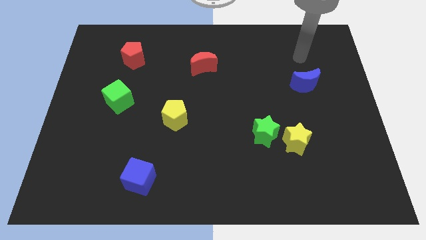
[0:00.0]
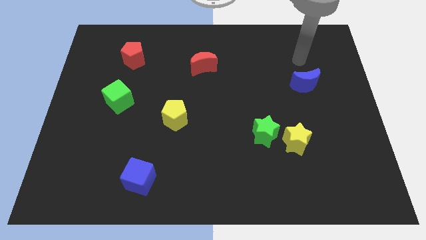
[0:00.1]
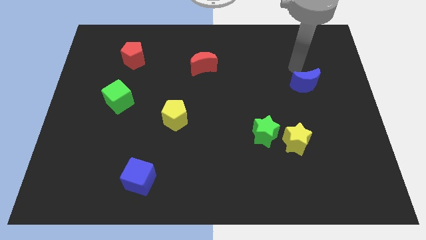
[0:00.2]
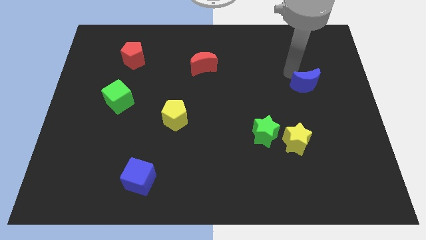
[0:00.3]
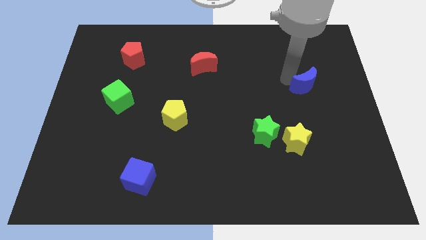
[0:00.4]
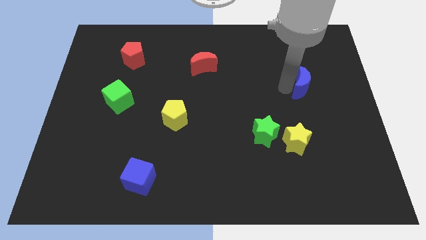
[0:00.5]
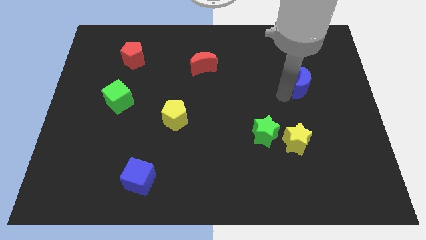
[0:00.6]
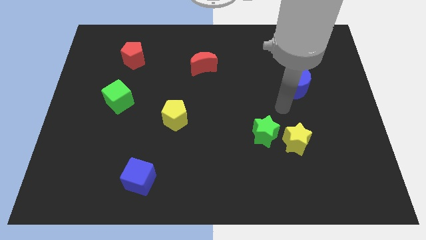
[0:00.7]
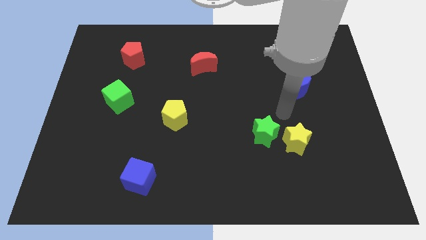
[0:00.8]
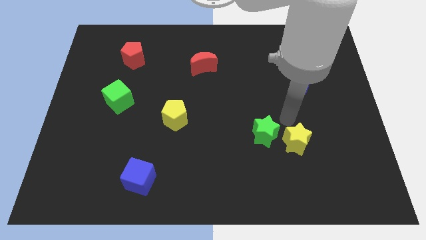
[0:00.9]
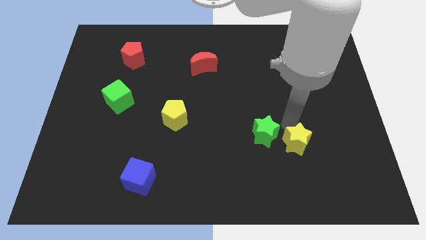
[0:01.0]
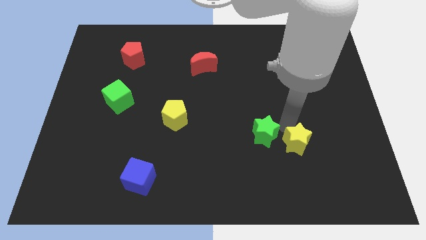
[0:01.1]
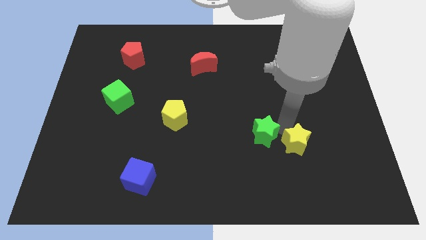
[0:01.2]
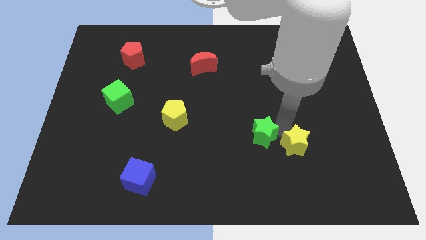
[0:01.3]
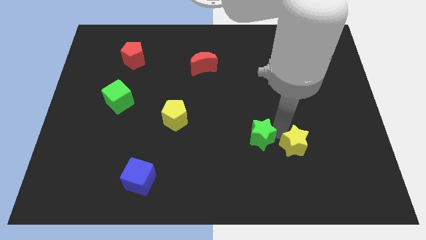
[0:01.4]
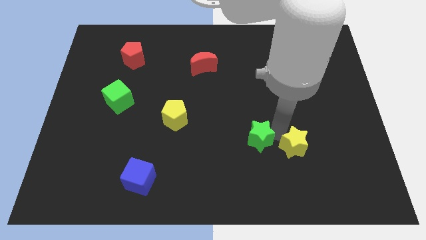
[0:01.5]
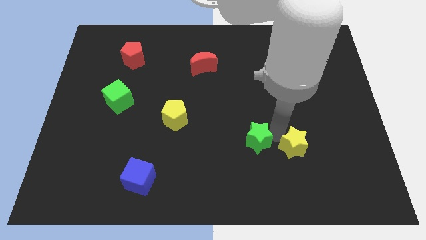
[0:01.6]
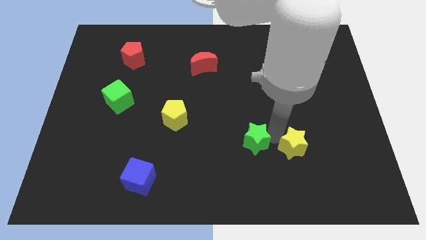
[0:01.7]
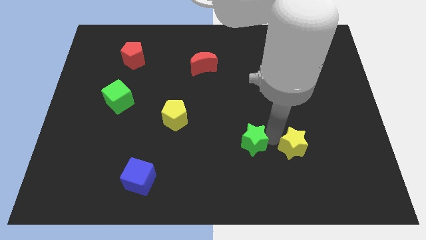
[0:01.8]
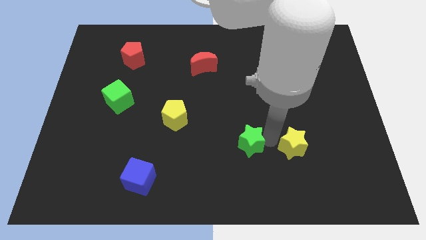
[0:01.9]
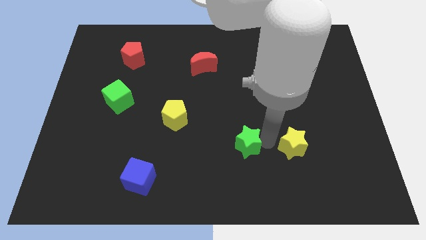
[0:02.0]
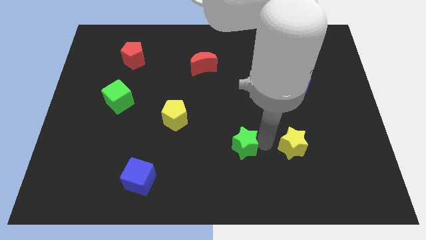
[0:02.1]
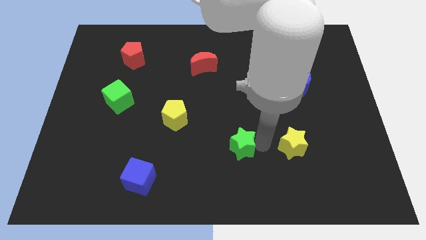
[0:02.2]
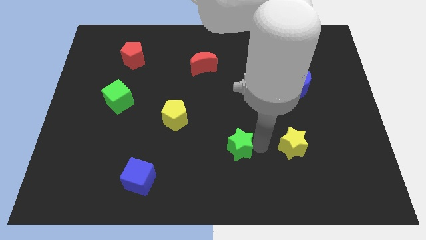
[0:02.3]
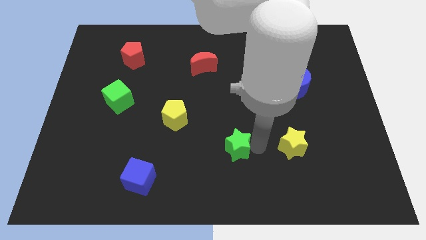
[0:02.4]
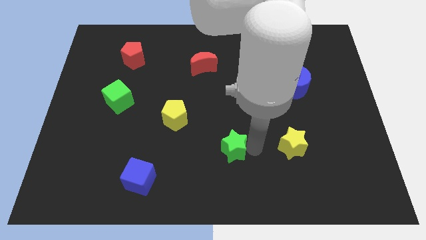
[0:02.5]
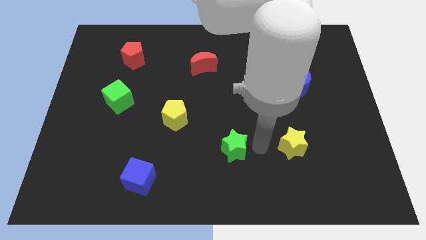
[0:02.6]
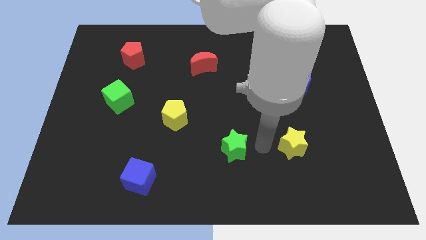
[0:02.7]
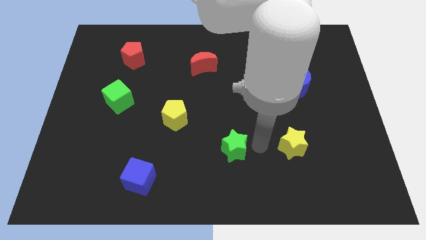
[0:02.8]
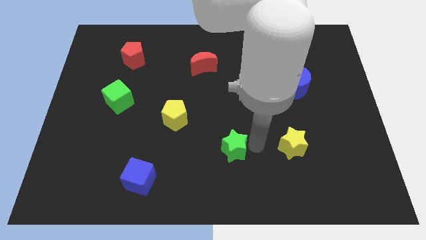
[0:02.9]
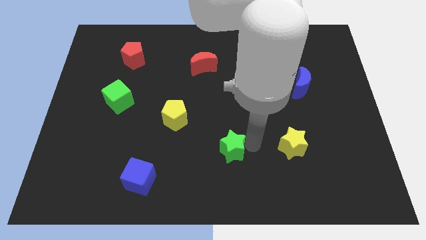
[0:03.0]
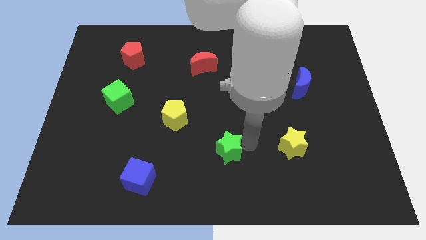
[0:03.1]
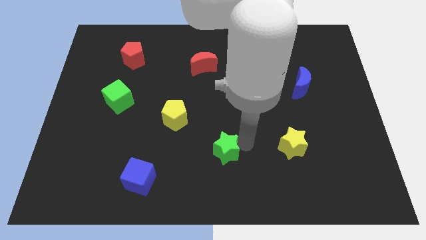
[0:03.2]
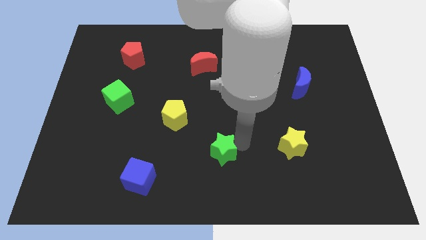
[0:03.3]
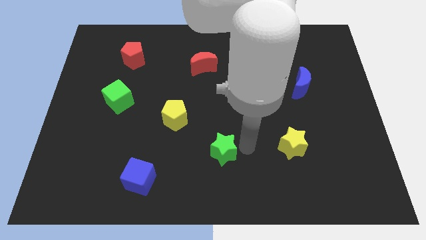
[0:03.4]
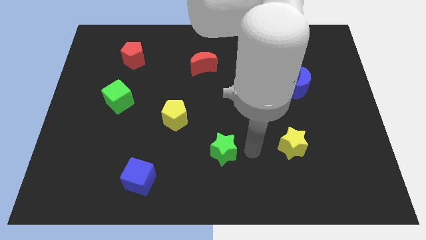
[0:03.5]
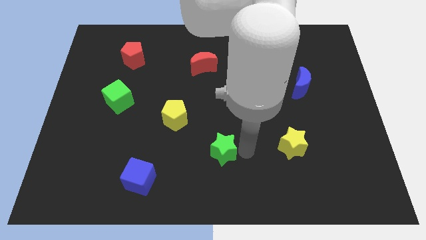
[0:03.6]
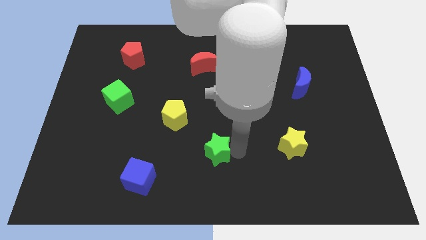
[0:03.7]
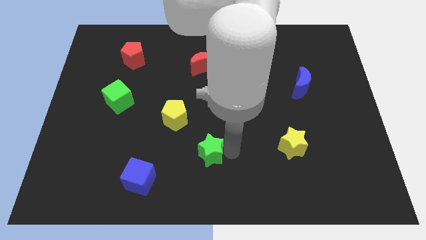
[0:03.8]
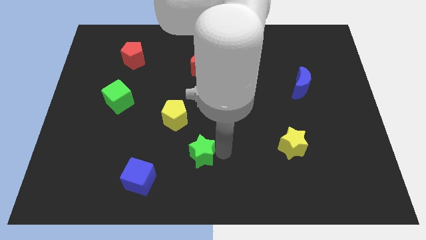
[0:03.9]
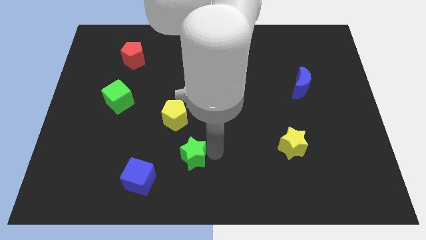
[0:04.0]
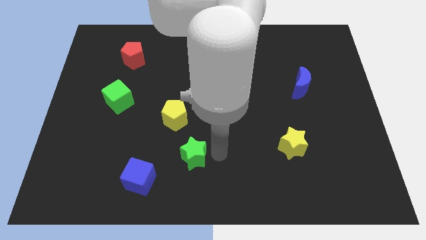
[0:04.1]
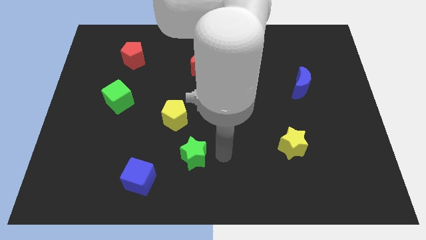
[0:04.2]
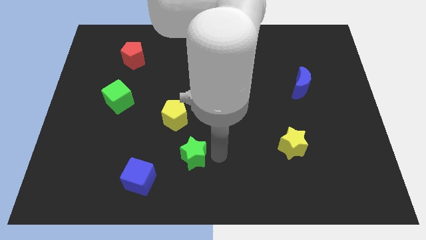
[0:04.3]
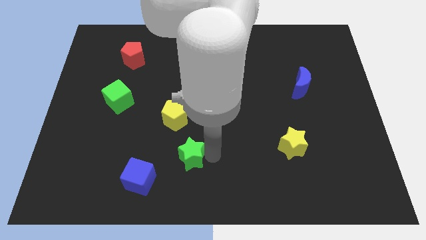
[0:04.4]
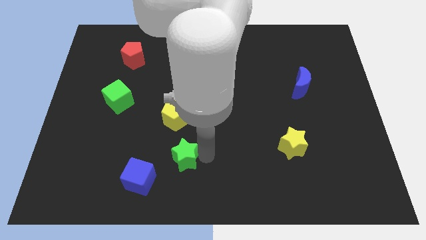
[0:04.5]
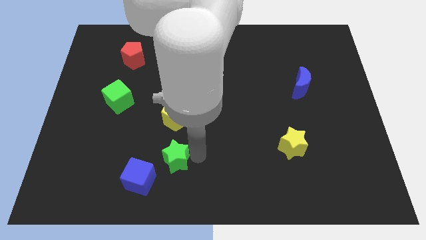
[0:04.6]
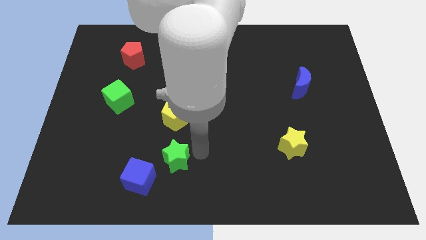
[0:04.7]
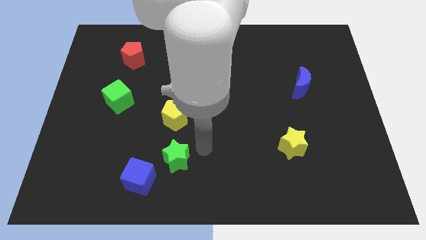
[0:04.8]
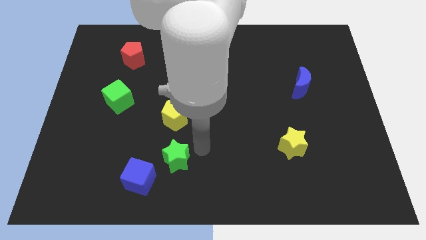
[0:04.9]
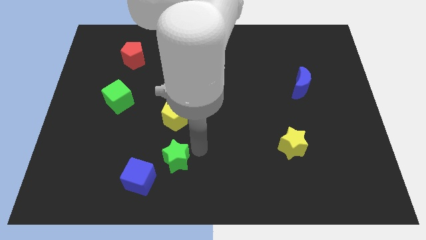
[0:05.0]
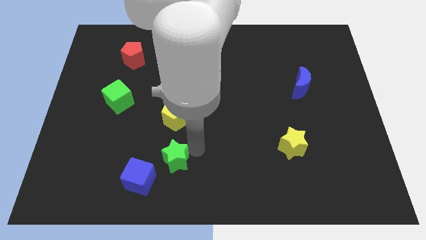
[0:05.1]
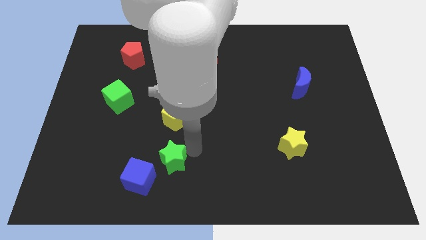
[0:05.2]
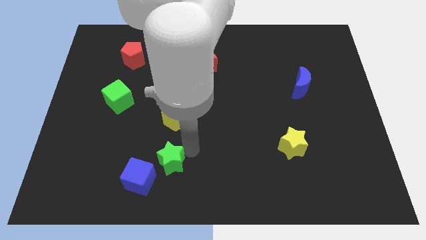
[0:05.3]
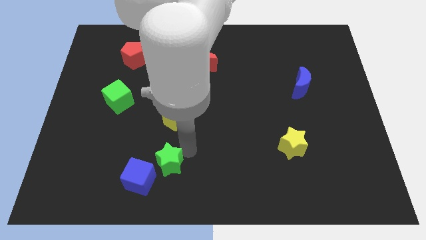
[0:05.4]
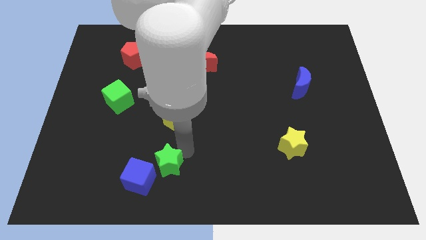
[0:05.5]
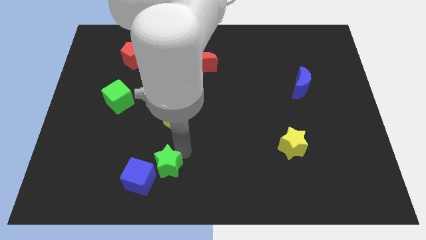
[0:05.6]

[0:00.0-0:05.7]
put the green star to the blue cube

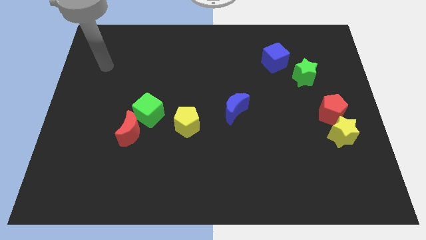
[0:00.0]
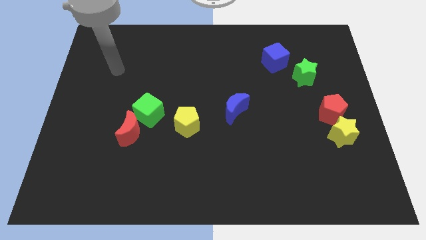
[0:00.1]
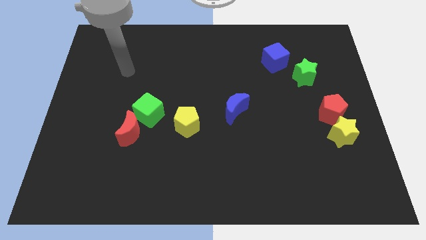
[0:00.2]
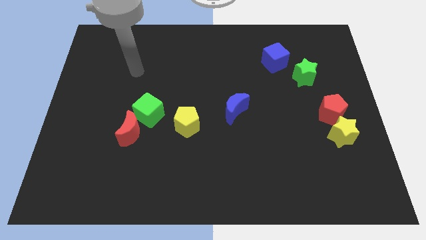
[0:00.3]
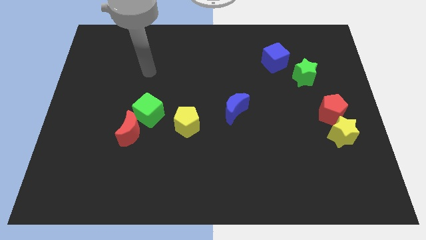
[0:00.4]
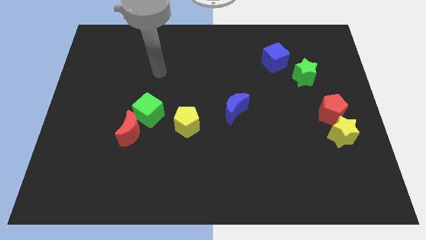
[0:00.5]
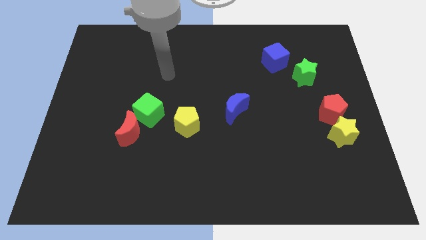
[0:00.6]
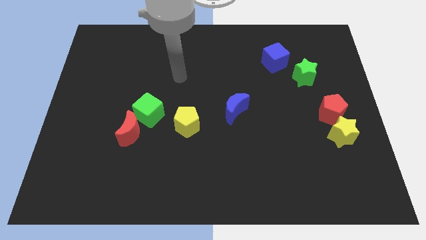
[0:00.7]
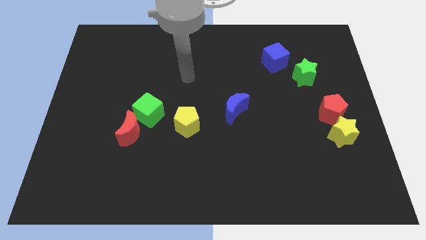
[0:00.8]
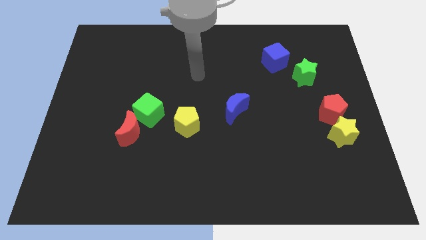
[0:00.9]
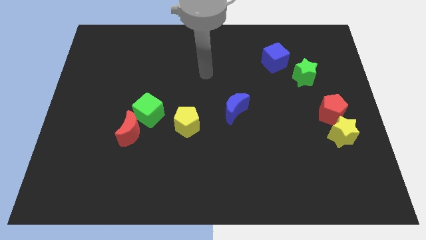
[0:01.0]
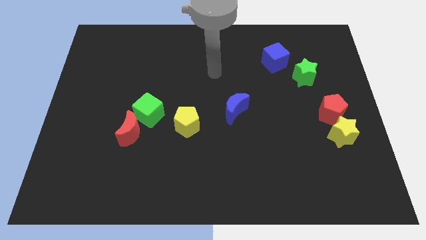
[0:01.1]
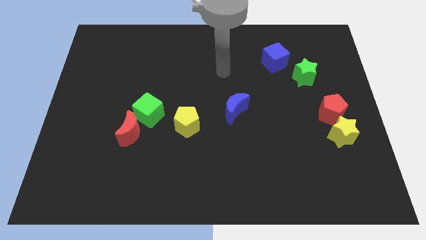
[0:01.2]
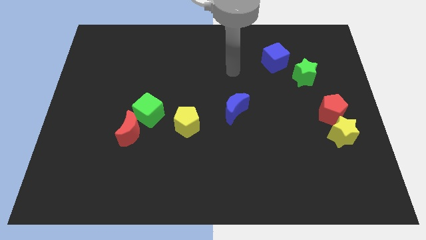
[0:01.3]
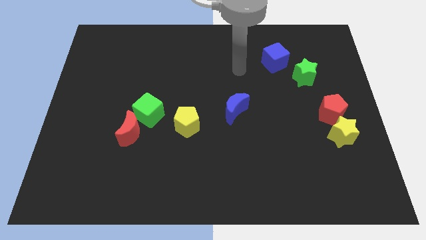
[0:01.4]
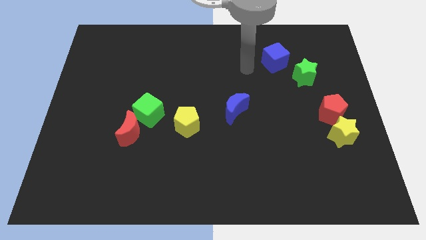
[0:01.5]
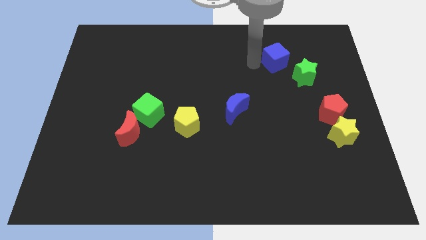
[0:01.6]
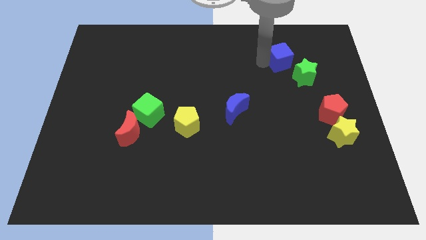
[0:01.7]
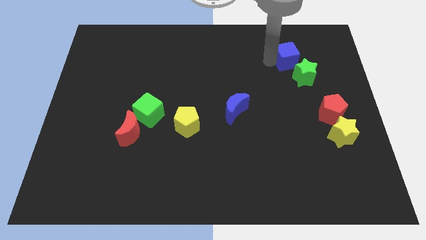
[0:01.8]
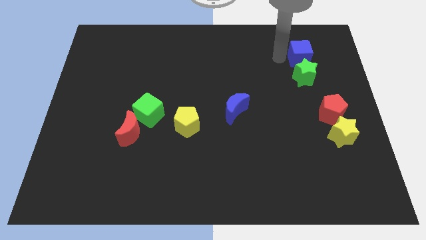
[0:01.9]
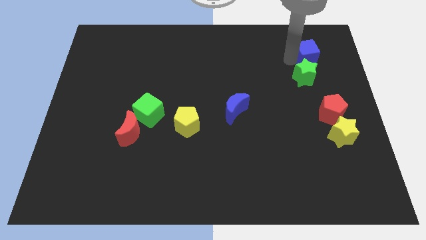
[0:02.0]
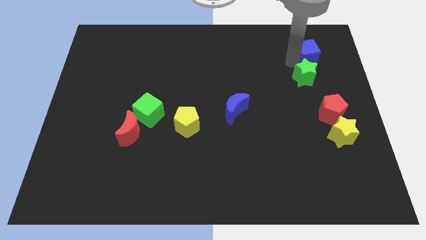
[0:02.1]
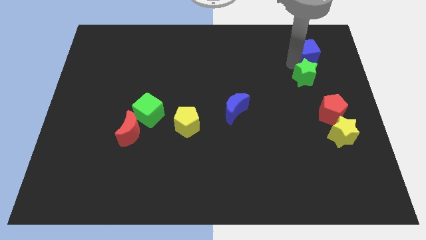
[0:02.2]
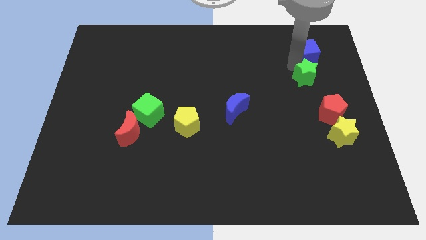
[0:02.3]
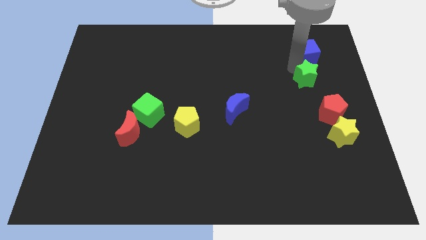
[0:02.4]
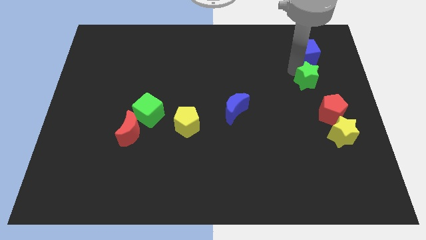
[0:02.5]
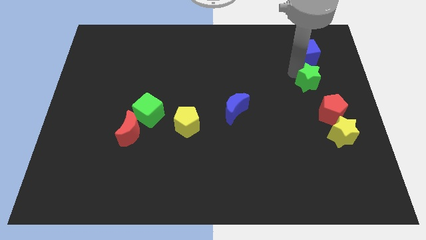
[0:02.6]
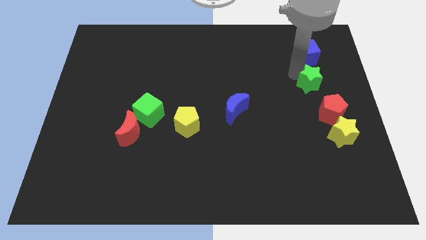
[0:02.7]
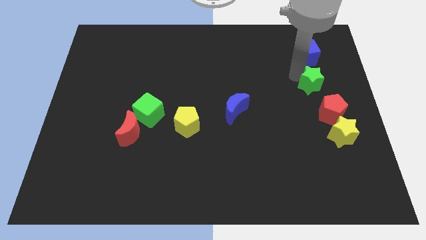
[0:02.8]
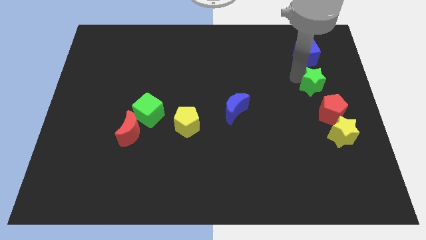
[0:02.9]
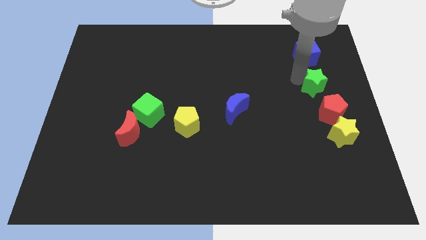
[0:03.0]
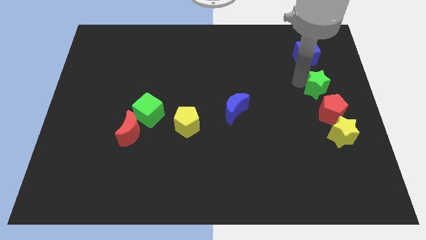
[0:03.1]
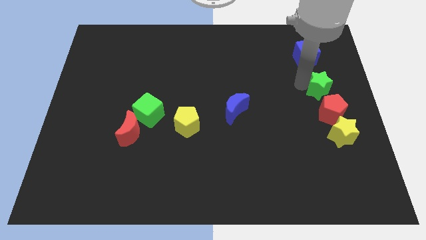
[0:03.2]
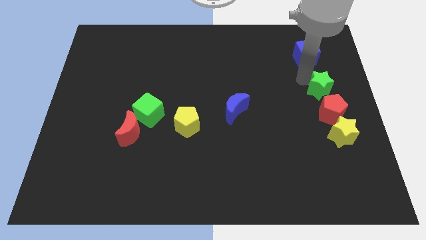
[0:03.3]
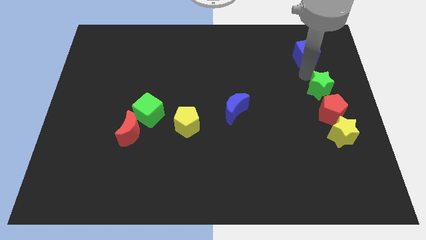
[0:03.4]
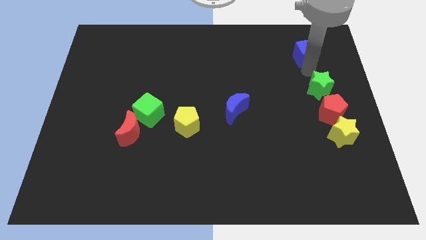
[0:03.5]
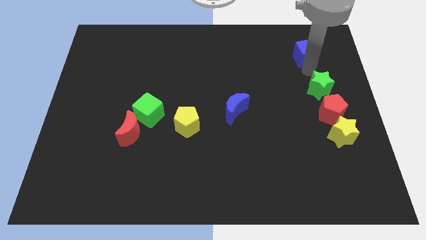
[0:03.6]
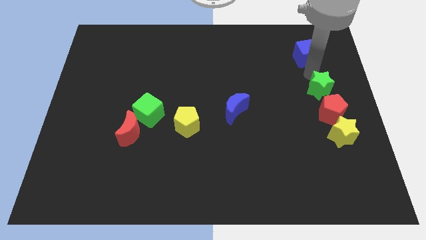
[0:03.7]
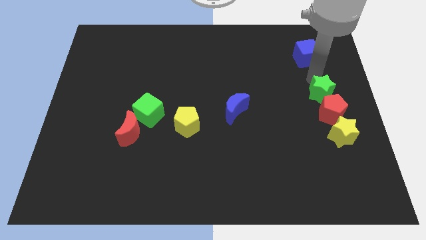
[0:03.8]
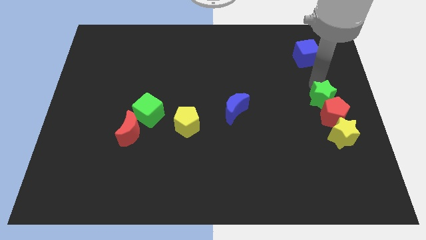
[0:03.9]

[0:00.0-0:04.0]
put the green star next to the red pentagon
